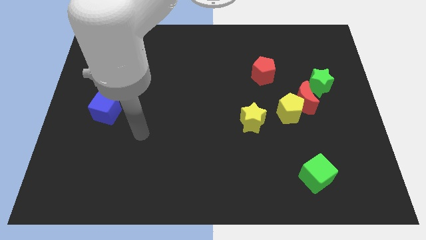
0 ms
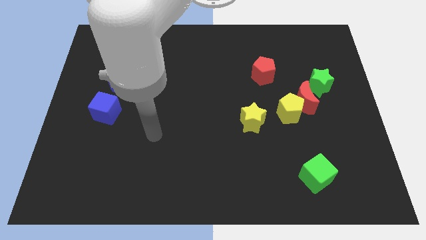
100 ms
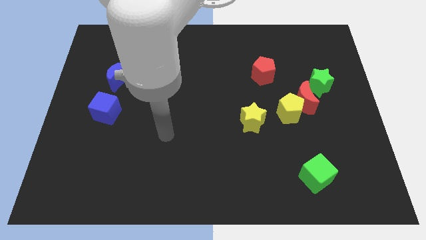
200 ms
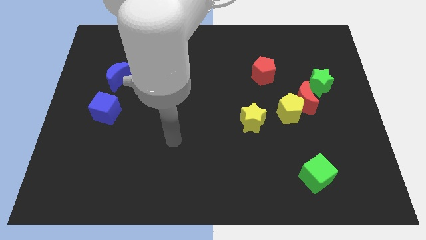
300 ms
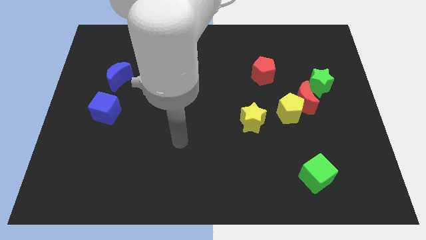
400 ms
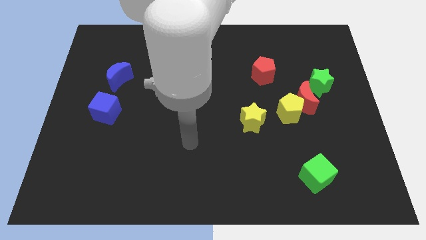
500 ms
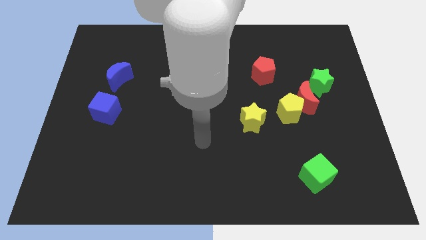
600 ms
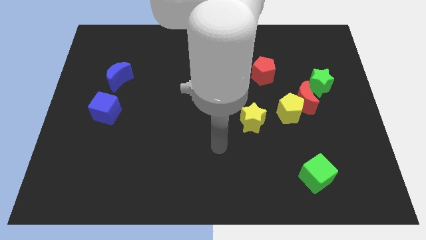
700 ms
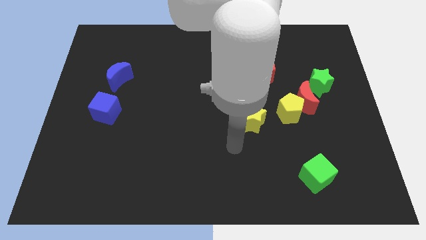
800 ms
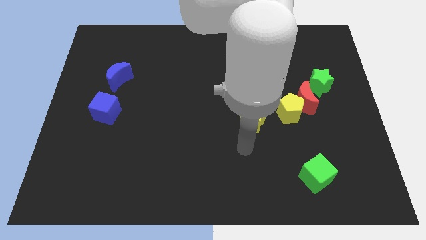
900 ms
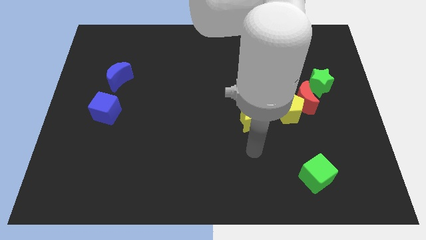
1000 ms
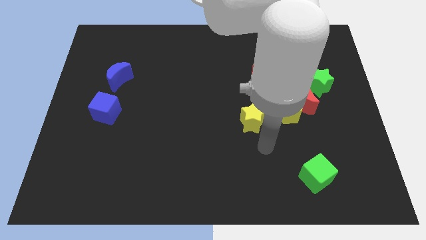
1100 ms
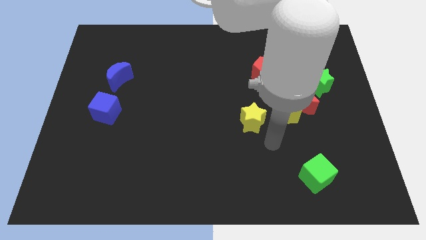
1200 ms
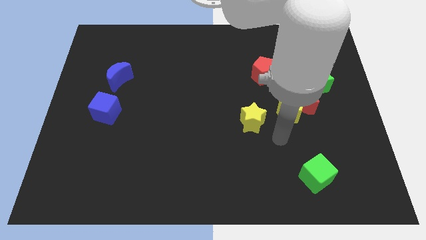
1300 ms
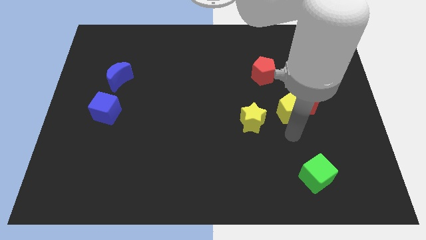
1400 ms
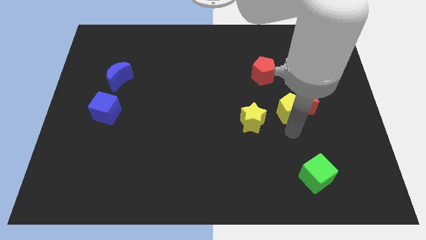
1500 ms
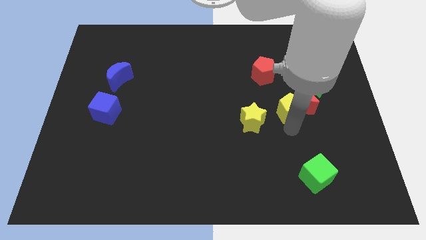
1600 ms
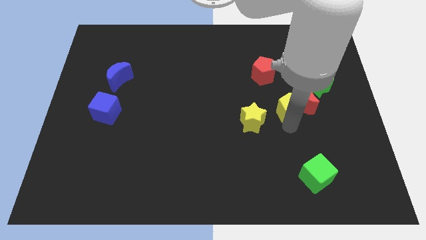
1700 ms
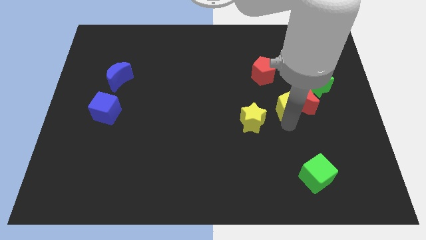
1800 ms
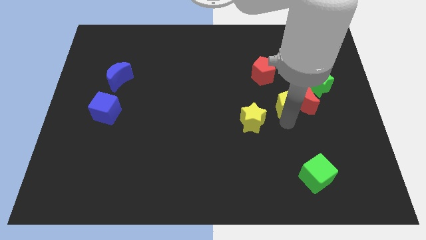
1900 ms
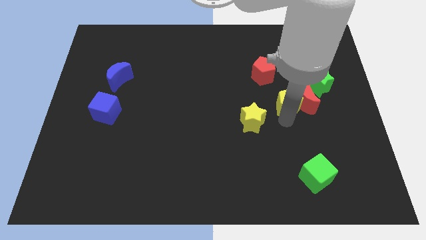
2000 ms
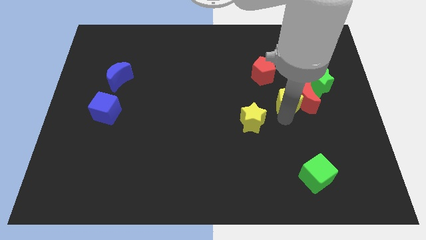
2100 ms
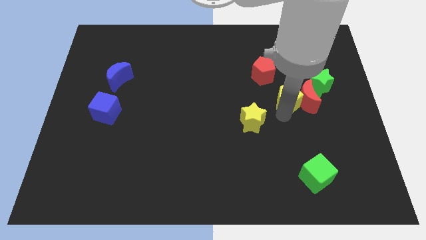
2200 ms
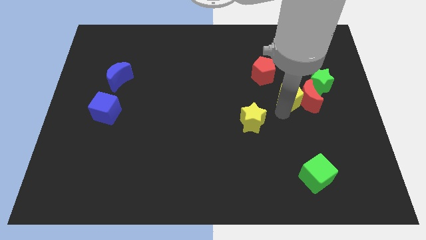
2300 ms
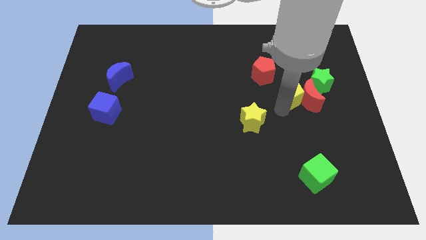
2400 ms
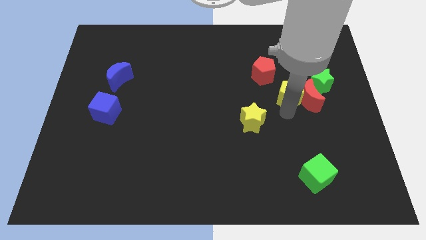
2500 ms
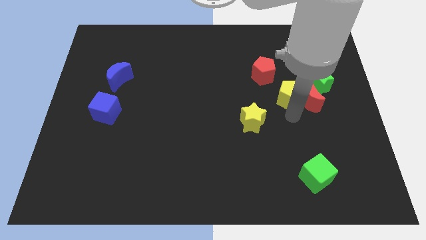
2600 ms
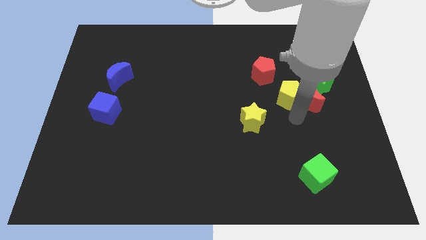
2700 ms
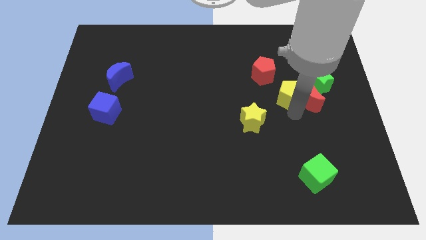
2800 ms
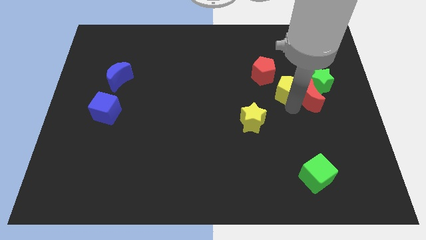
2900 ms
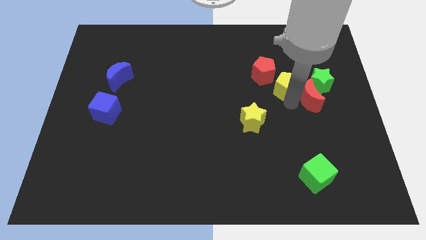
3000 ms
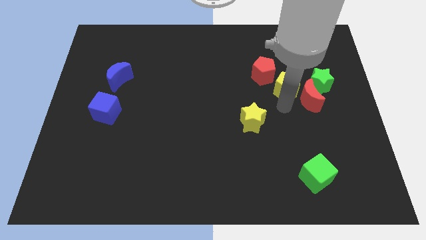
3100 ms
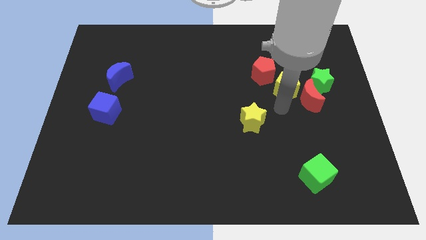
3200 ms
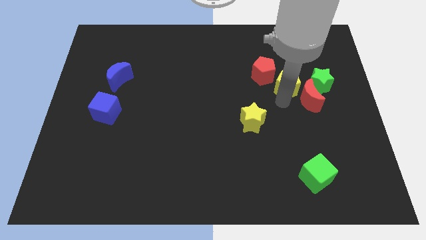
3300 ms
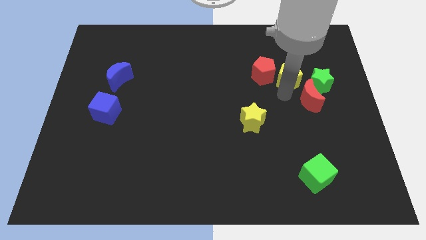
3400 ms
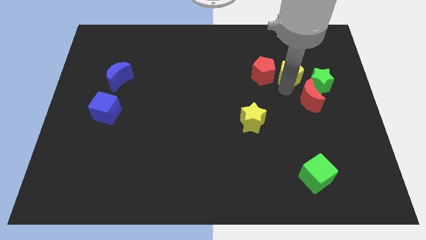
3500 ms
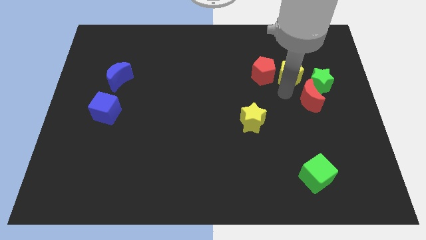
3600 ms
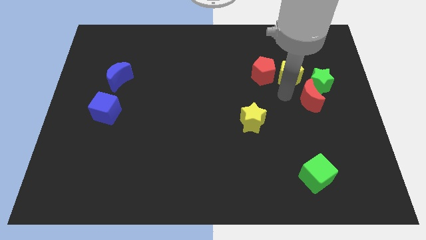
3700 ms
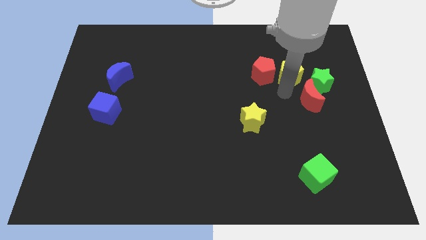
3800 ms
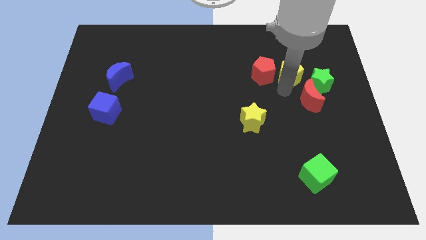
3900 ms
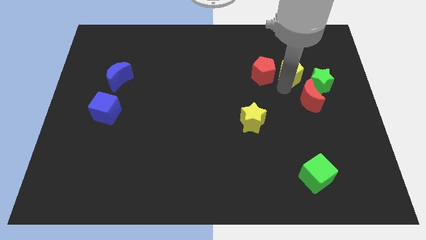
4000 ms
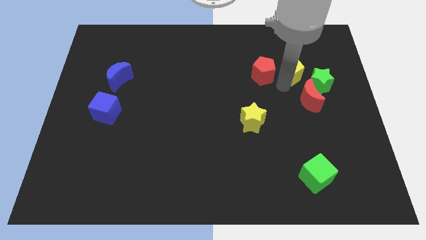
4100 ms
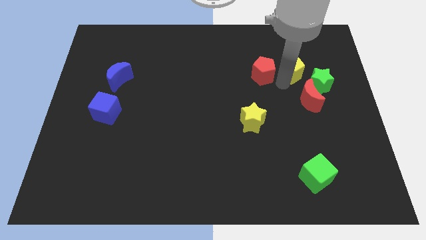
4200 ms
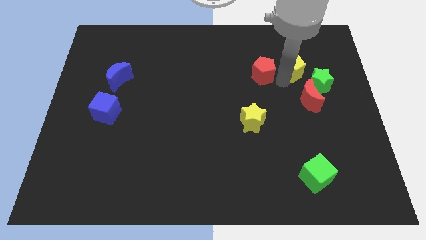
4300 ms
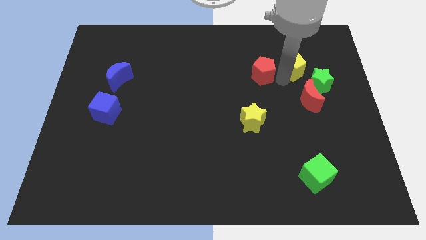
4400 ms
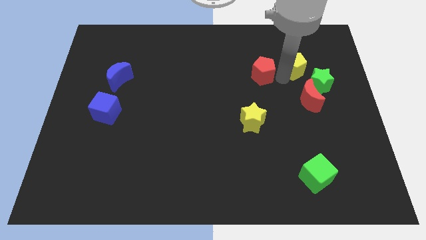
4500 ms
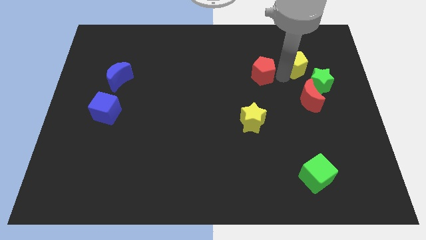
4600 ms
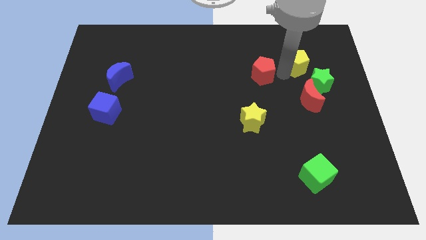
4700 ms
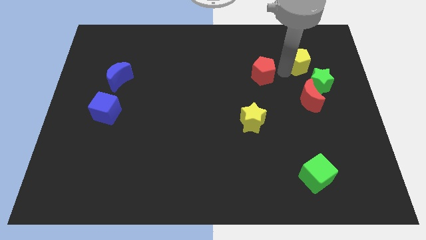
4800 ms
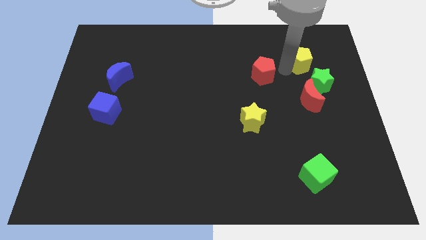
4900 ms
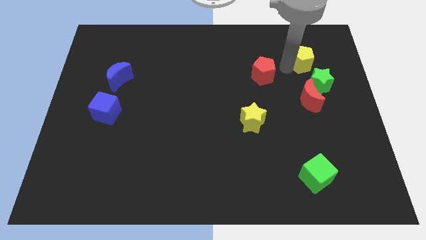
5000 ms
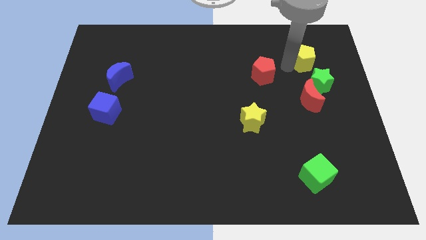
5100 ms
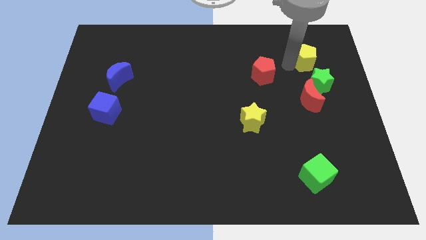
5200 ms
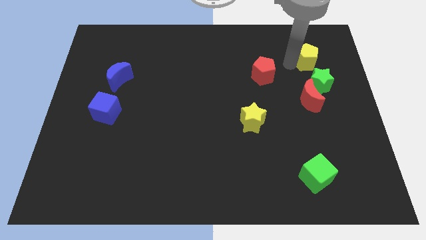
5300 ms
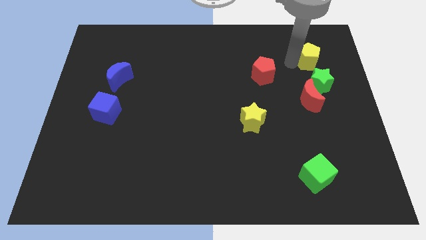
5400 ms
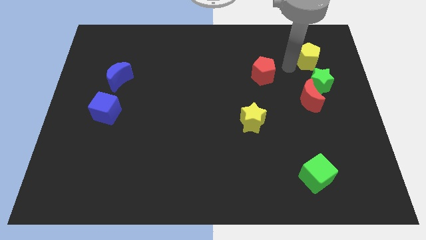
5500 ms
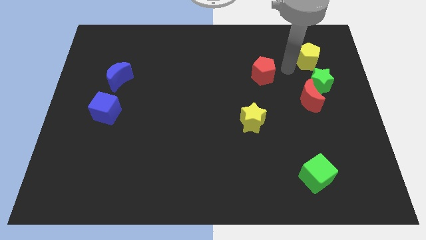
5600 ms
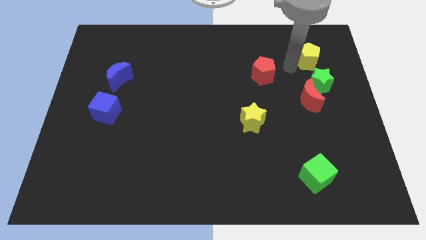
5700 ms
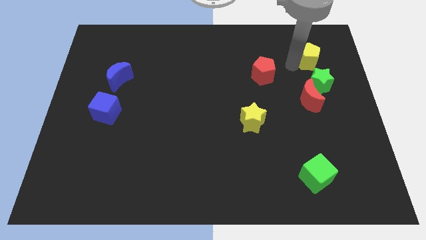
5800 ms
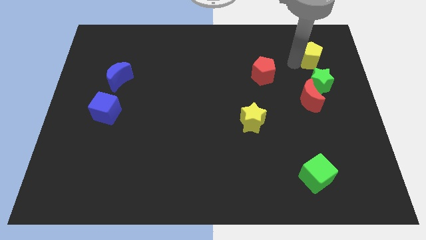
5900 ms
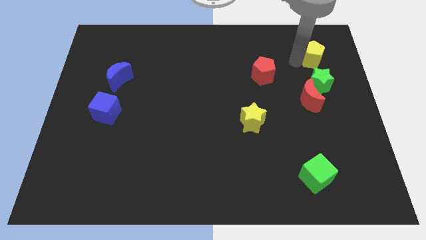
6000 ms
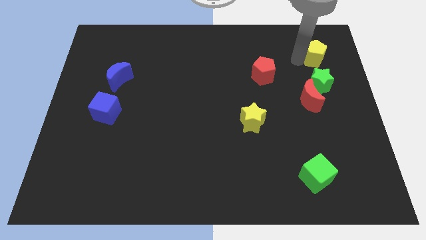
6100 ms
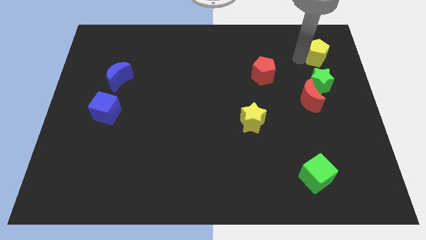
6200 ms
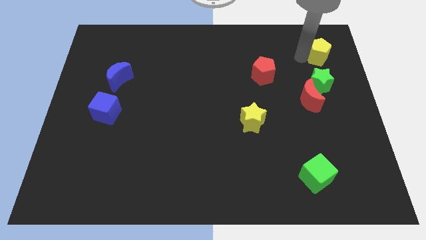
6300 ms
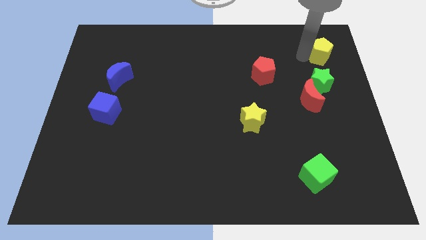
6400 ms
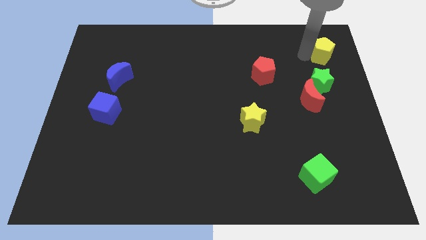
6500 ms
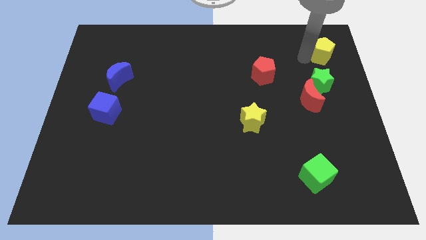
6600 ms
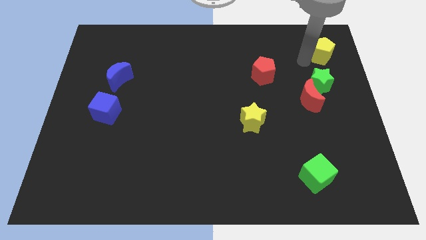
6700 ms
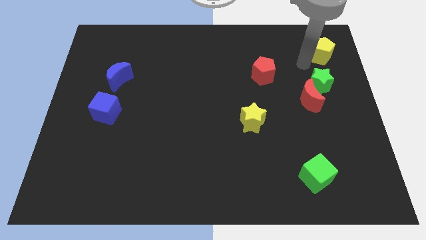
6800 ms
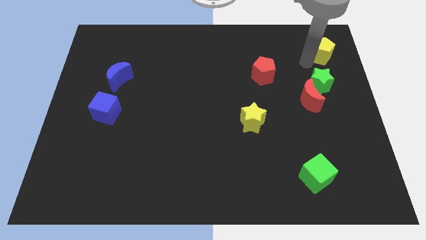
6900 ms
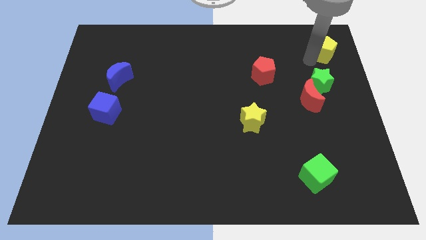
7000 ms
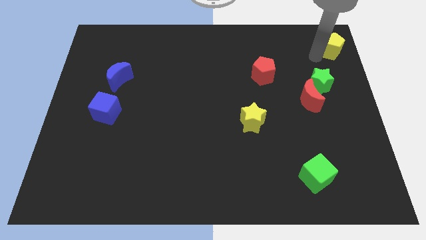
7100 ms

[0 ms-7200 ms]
put the yellow pentagon to the top right of the board

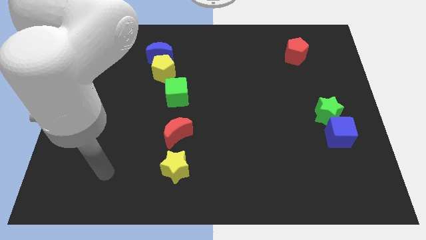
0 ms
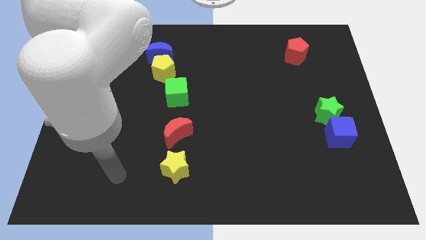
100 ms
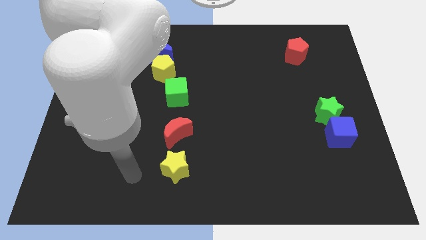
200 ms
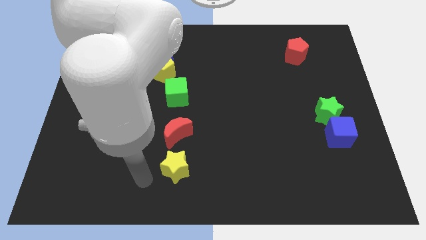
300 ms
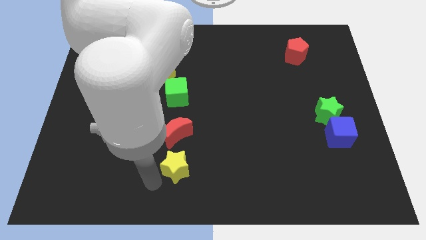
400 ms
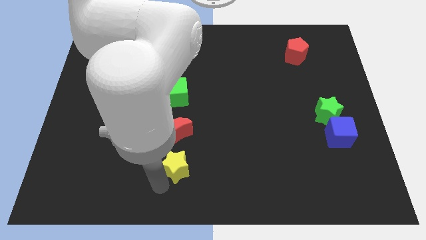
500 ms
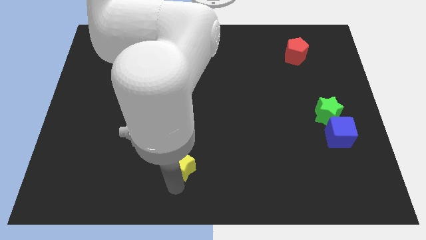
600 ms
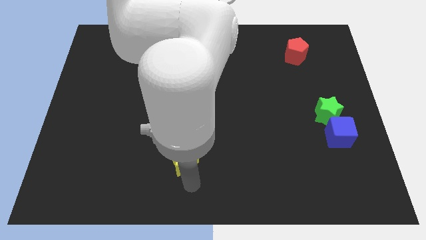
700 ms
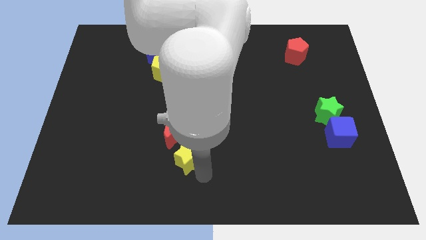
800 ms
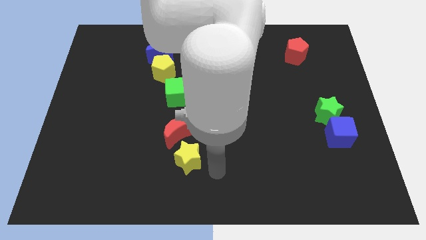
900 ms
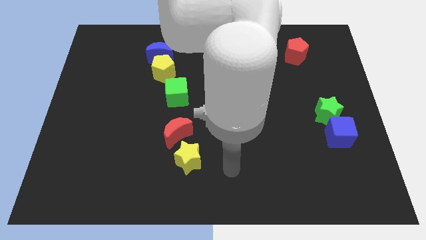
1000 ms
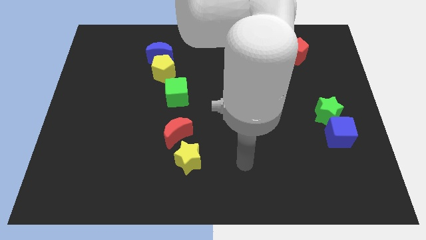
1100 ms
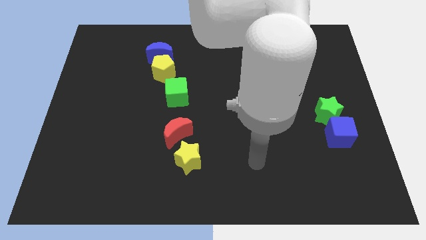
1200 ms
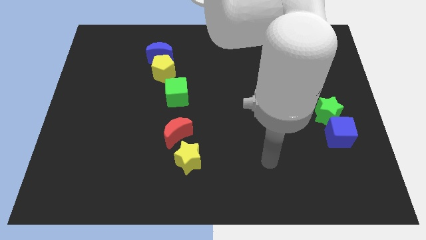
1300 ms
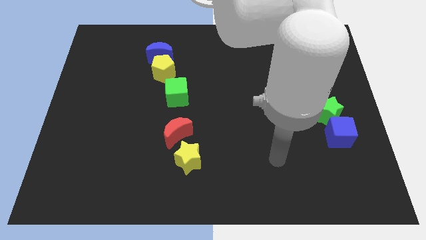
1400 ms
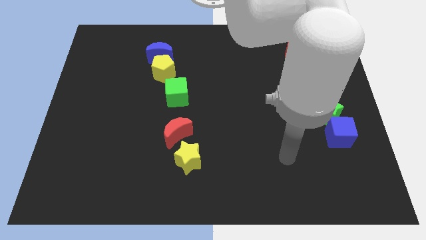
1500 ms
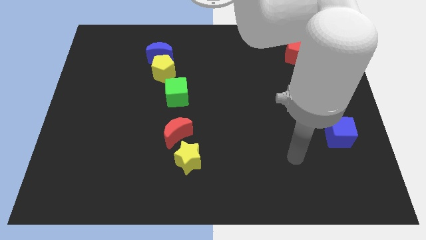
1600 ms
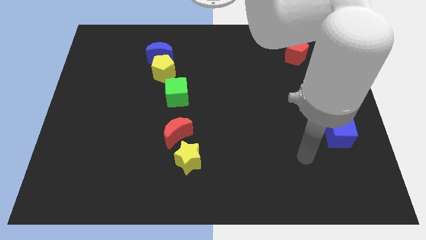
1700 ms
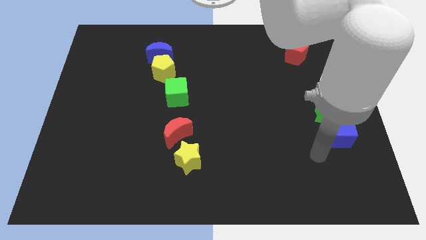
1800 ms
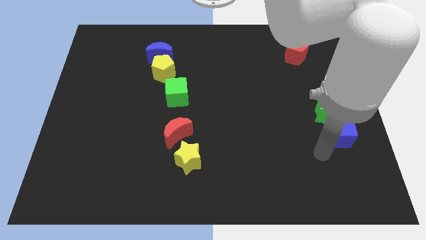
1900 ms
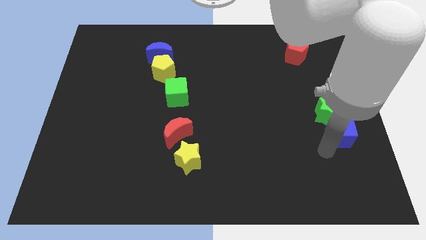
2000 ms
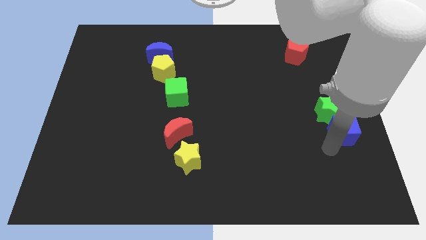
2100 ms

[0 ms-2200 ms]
push the blue cube to the right side of the board
